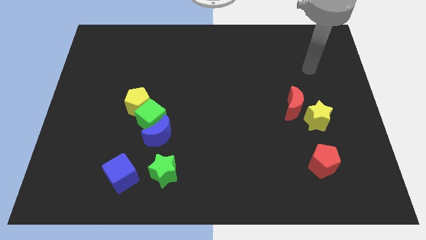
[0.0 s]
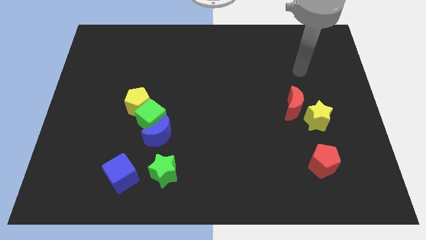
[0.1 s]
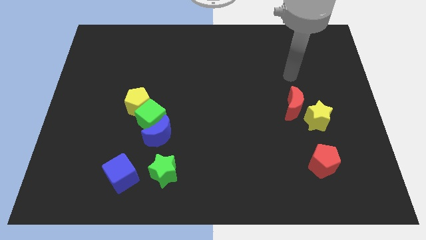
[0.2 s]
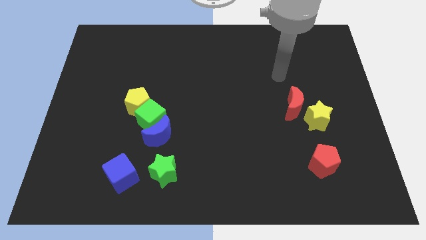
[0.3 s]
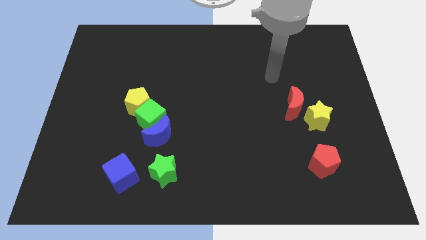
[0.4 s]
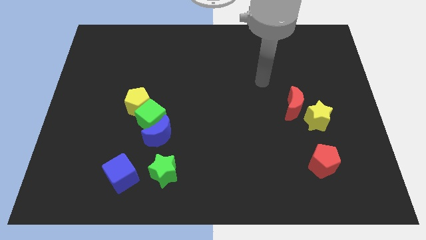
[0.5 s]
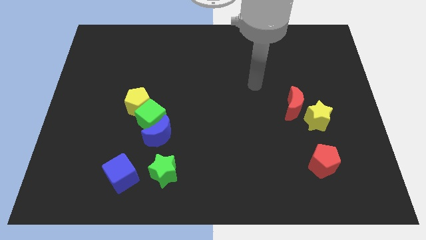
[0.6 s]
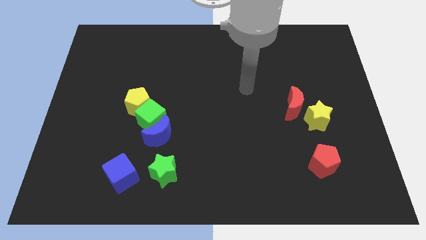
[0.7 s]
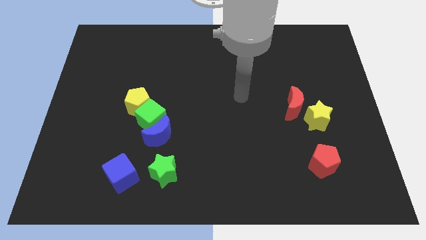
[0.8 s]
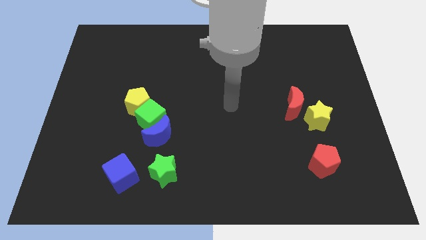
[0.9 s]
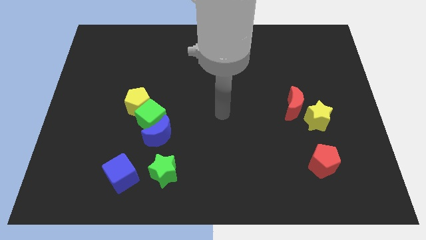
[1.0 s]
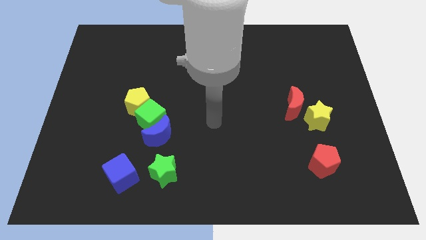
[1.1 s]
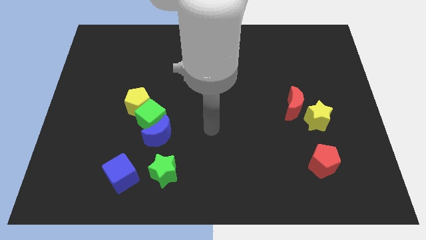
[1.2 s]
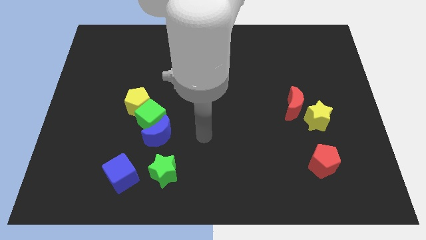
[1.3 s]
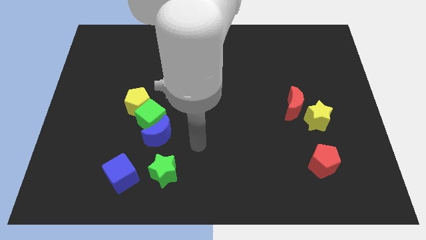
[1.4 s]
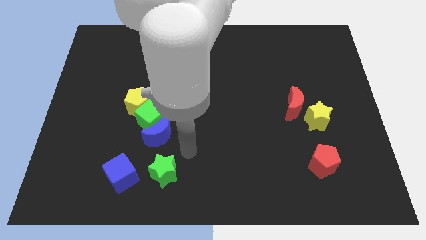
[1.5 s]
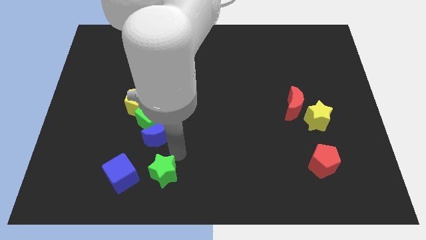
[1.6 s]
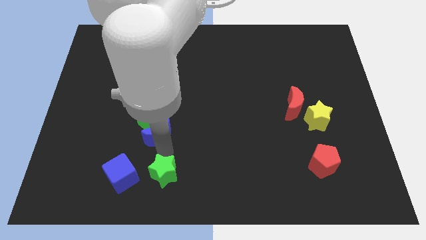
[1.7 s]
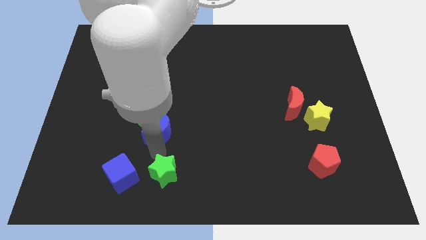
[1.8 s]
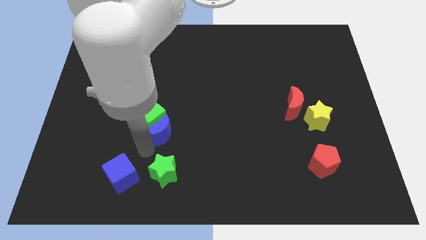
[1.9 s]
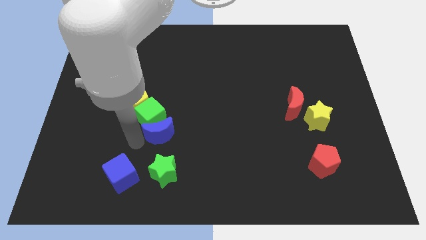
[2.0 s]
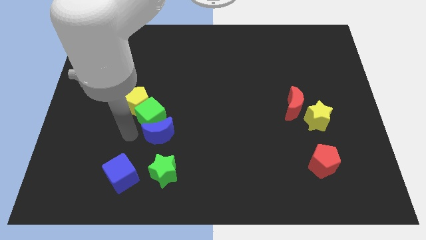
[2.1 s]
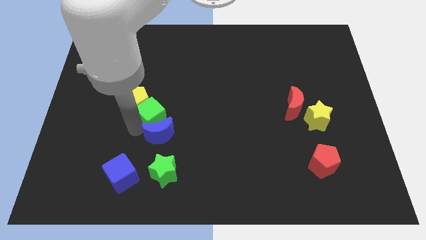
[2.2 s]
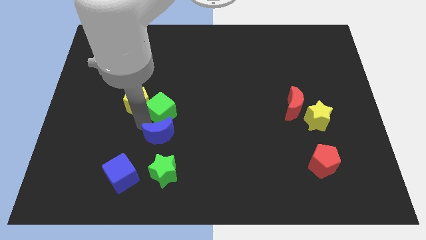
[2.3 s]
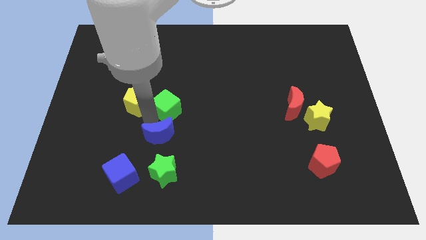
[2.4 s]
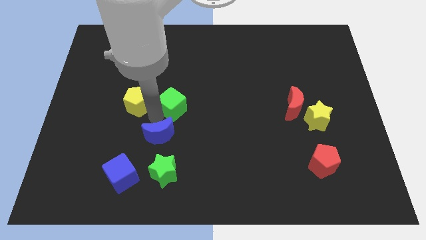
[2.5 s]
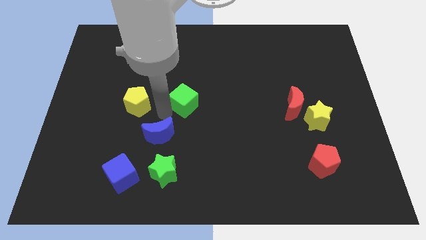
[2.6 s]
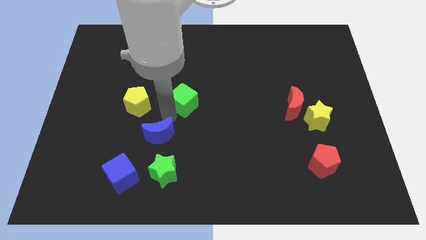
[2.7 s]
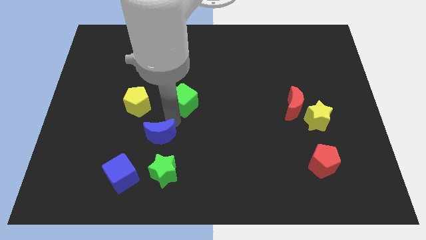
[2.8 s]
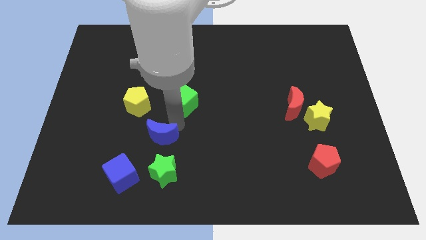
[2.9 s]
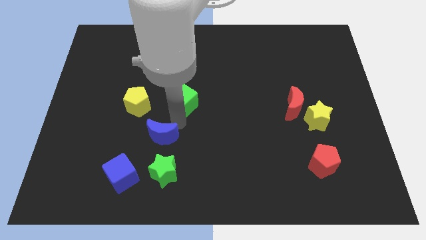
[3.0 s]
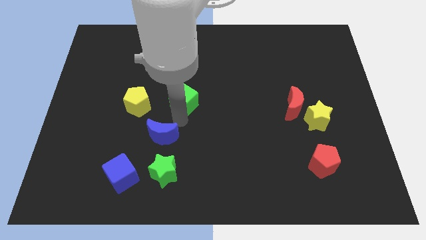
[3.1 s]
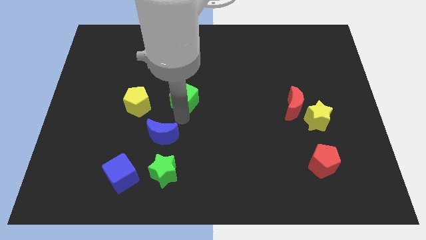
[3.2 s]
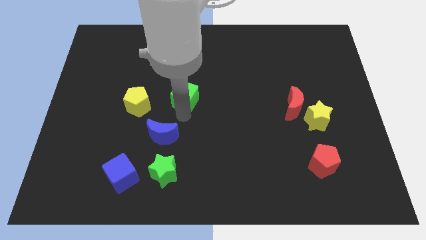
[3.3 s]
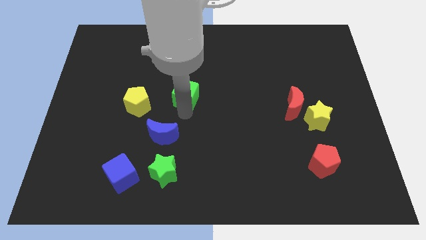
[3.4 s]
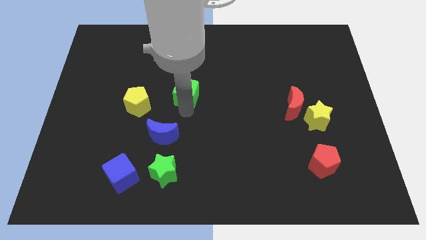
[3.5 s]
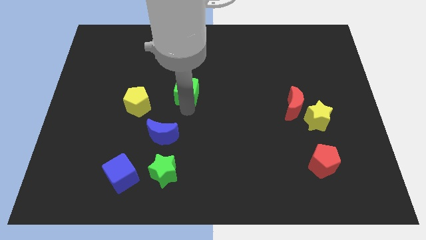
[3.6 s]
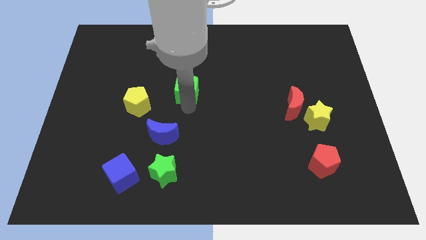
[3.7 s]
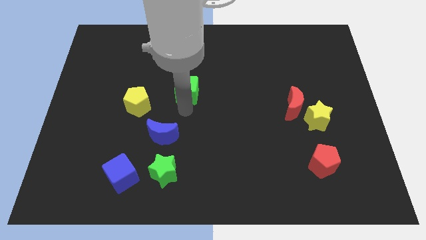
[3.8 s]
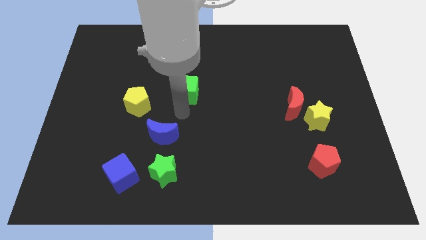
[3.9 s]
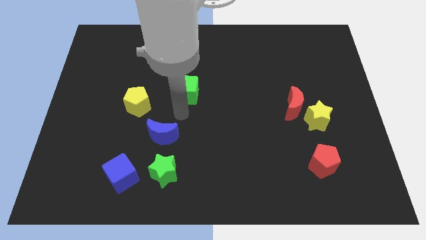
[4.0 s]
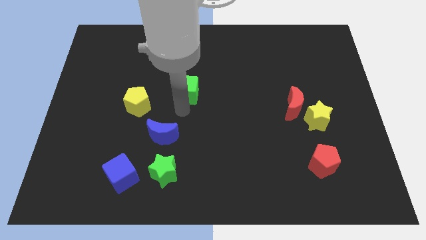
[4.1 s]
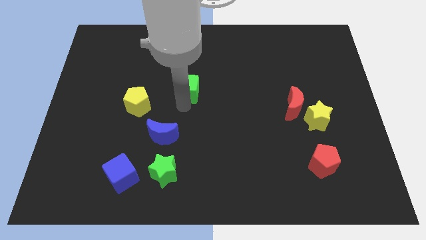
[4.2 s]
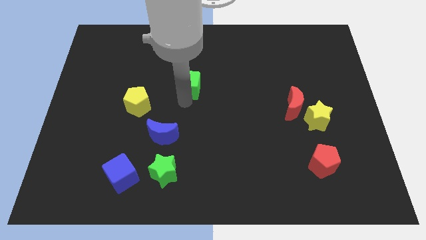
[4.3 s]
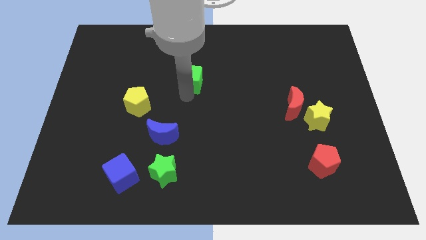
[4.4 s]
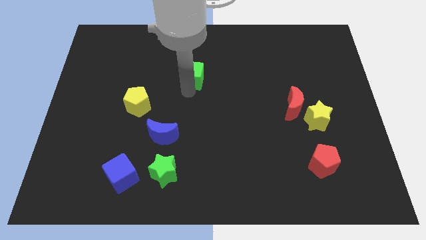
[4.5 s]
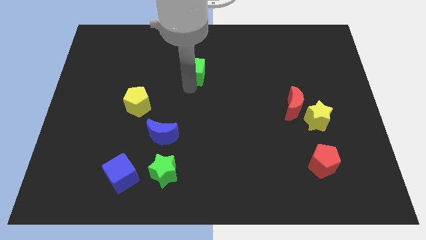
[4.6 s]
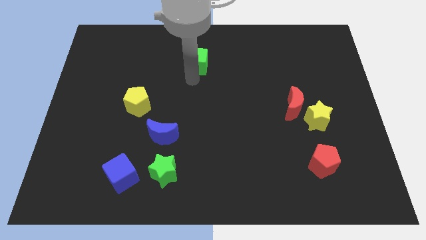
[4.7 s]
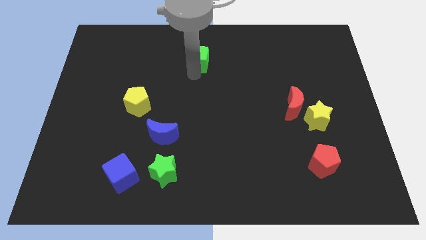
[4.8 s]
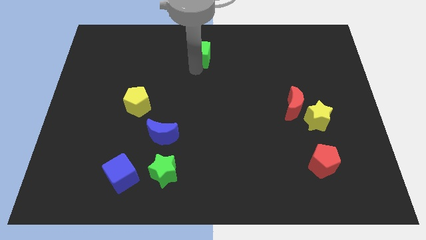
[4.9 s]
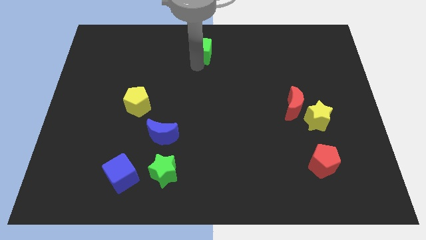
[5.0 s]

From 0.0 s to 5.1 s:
put the green cube to the towards your base

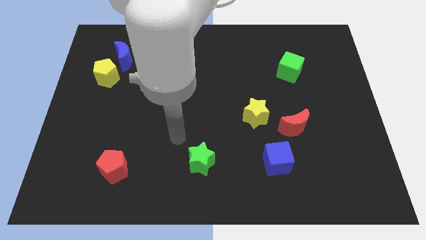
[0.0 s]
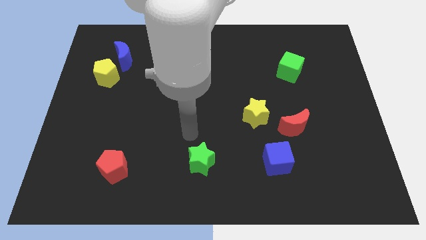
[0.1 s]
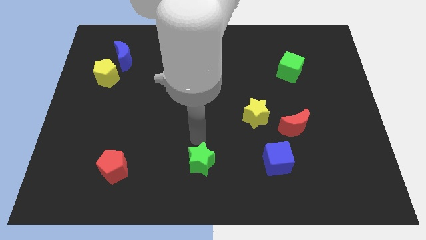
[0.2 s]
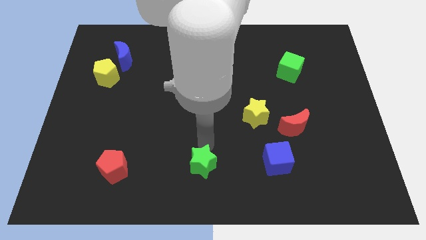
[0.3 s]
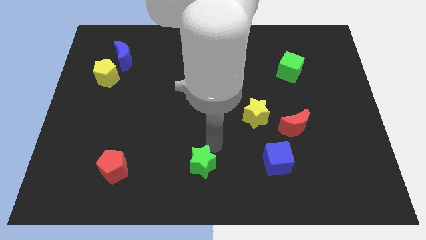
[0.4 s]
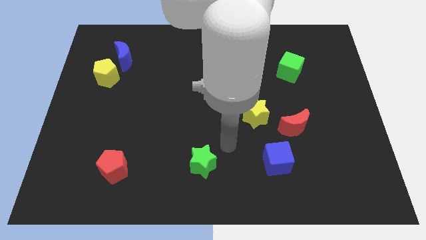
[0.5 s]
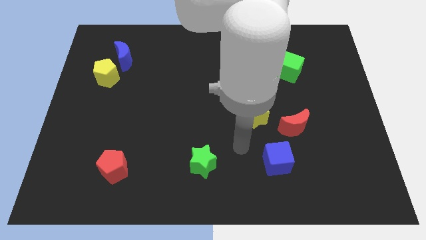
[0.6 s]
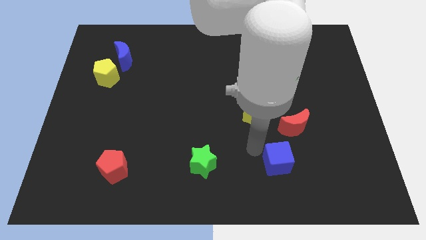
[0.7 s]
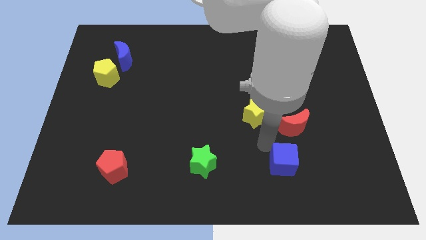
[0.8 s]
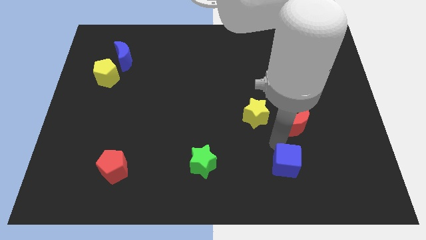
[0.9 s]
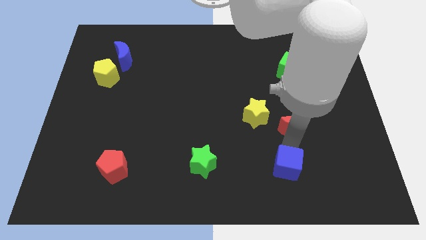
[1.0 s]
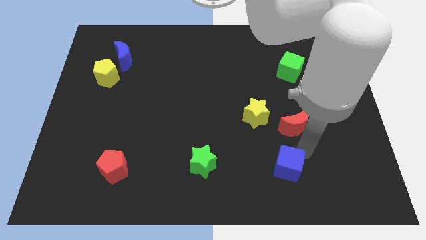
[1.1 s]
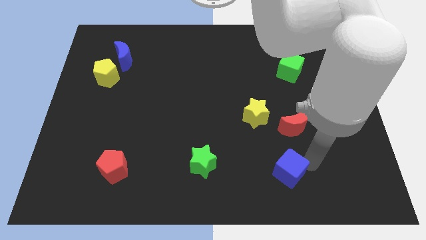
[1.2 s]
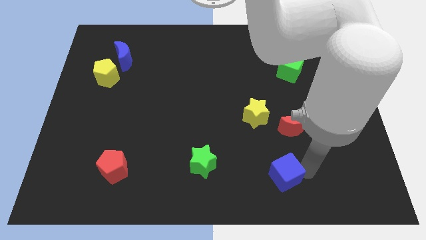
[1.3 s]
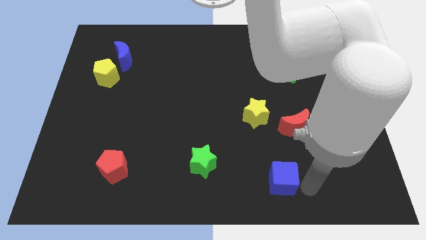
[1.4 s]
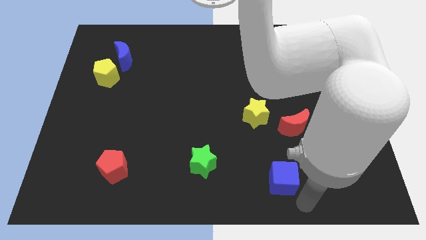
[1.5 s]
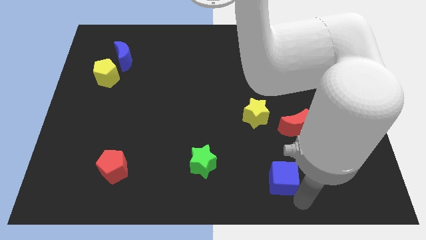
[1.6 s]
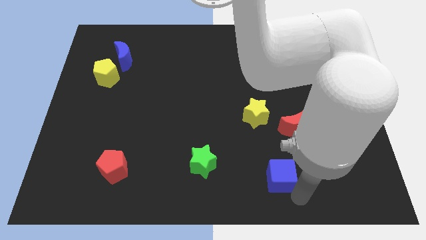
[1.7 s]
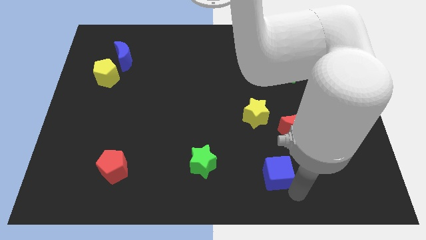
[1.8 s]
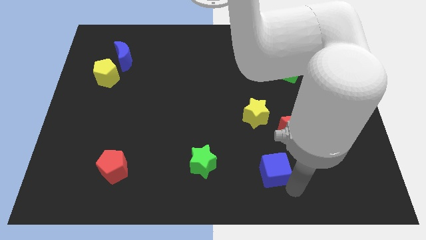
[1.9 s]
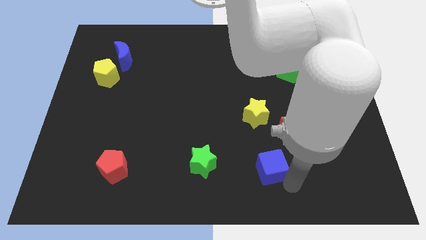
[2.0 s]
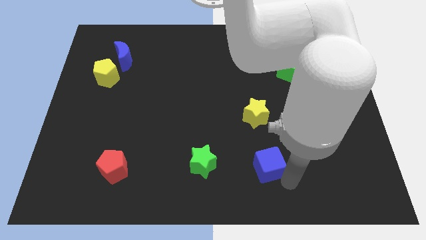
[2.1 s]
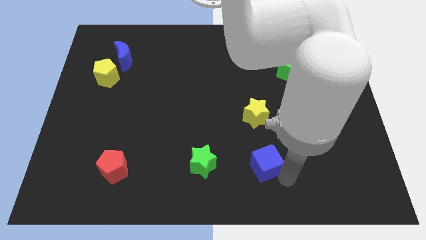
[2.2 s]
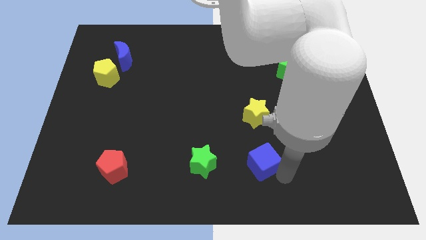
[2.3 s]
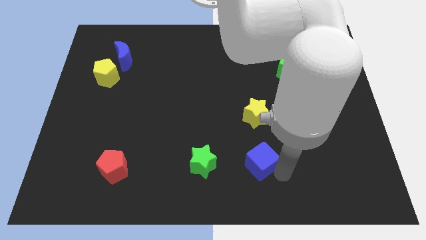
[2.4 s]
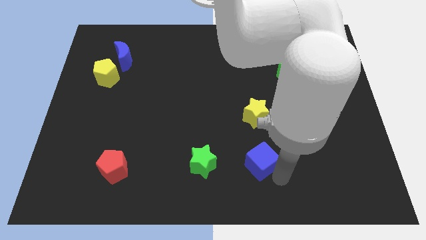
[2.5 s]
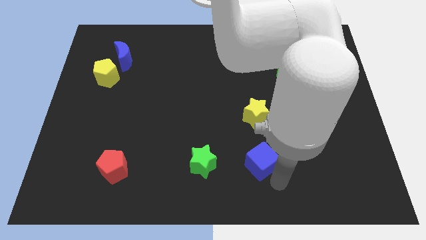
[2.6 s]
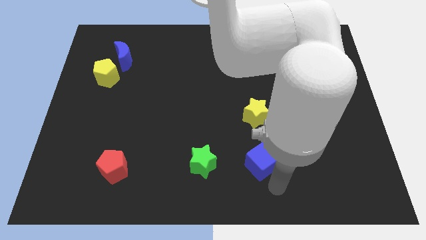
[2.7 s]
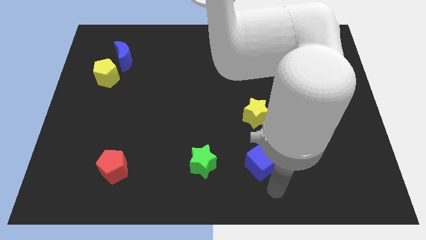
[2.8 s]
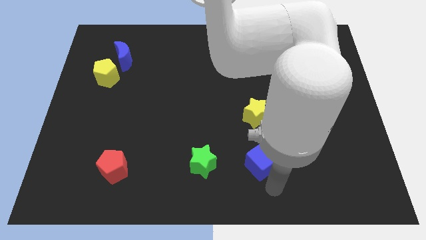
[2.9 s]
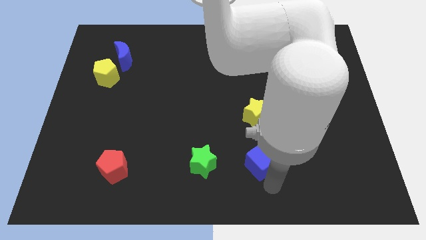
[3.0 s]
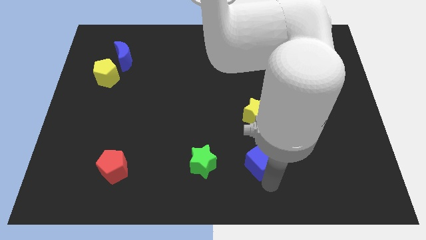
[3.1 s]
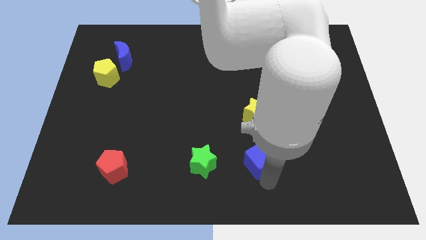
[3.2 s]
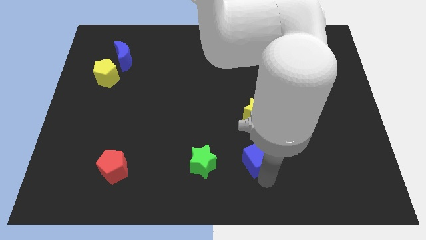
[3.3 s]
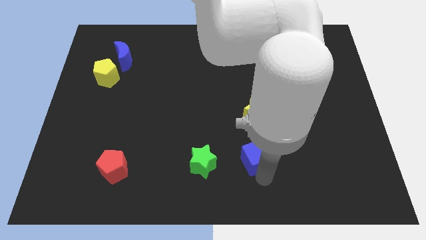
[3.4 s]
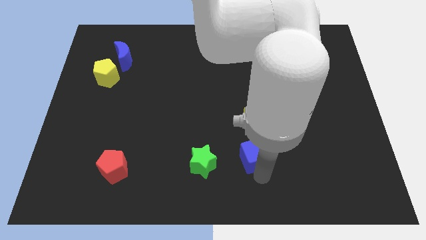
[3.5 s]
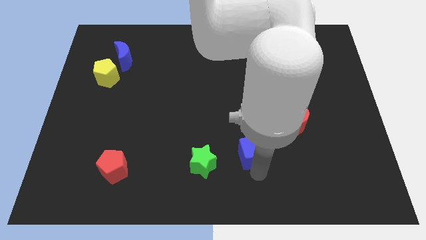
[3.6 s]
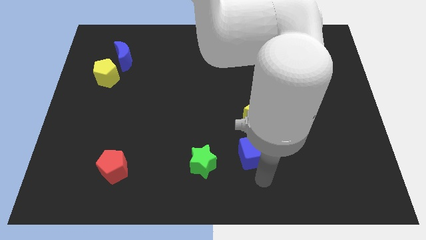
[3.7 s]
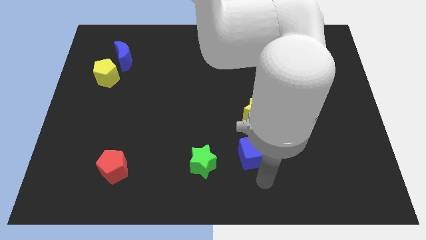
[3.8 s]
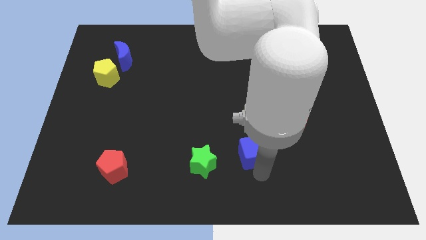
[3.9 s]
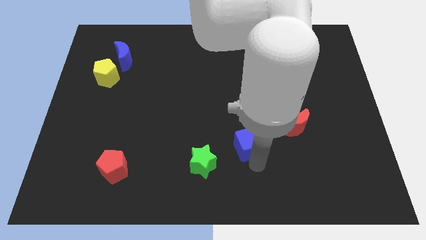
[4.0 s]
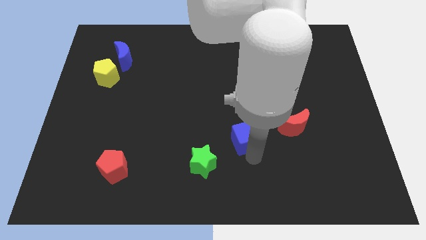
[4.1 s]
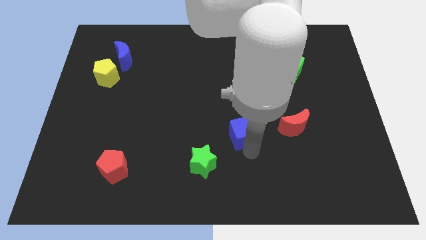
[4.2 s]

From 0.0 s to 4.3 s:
move the blue cube to the middle of the board
